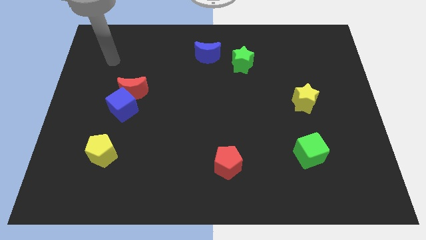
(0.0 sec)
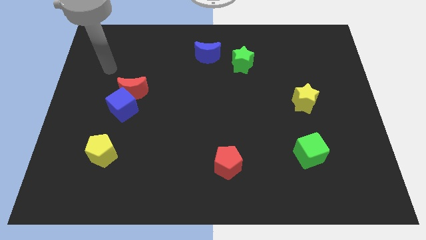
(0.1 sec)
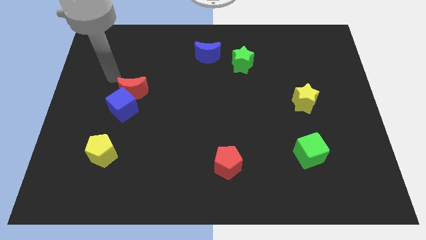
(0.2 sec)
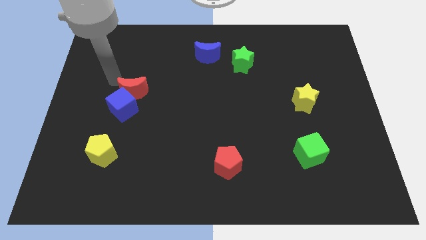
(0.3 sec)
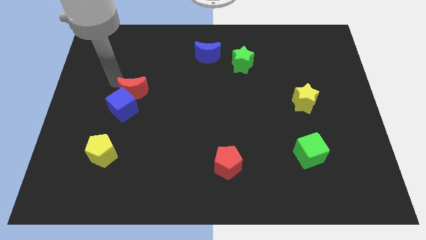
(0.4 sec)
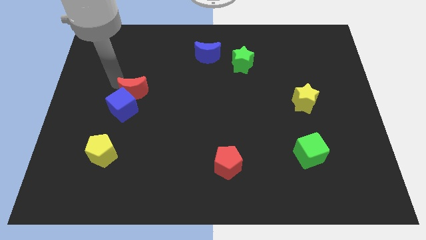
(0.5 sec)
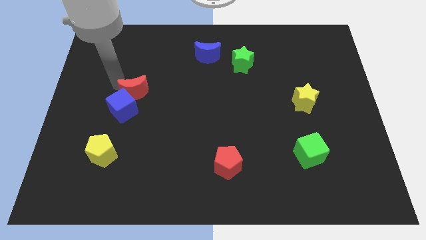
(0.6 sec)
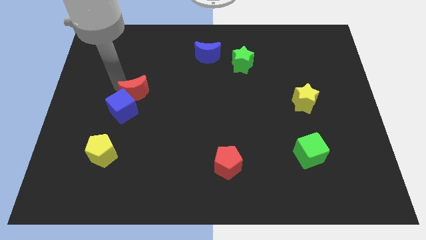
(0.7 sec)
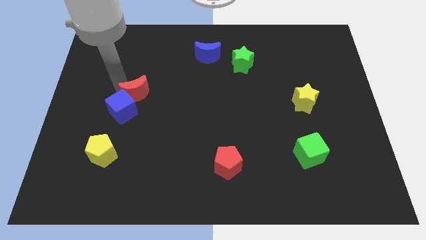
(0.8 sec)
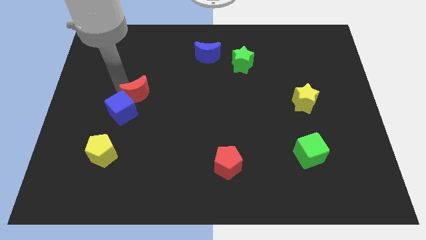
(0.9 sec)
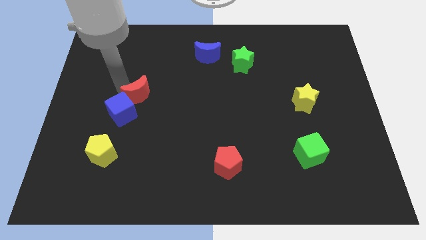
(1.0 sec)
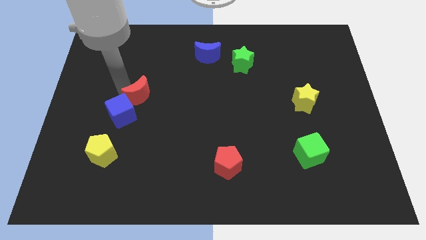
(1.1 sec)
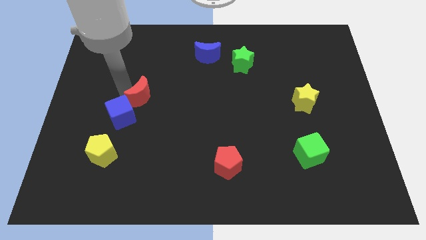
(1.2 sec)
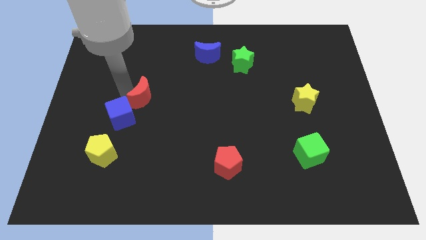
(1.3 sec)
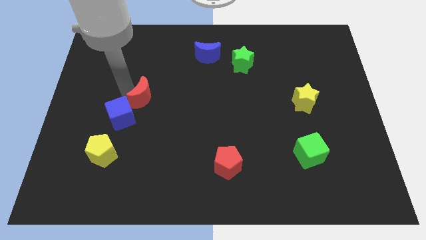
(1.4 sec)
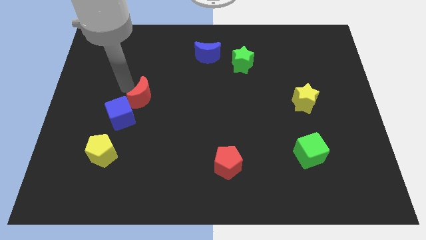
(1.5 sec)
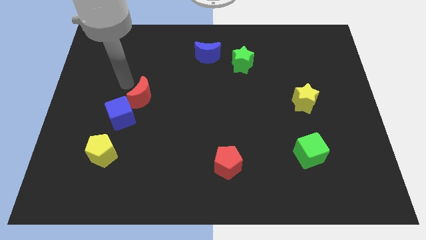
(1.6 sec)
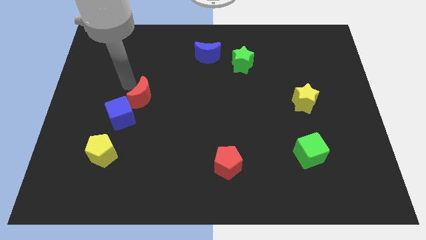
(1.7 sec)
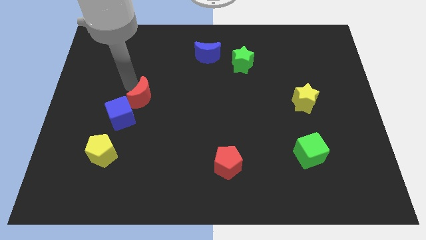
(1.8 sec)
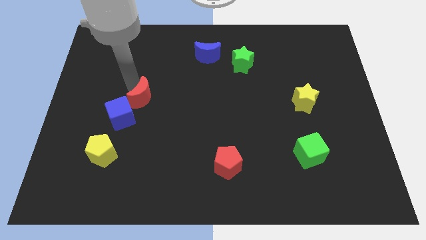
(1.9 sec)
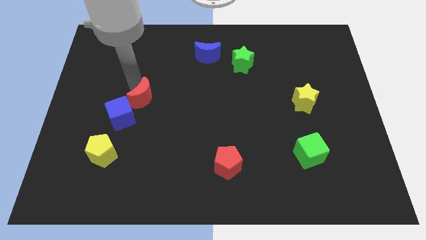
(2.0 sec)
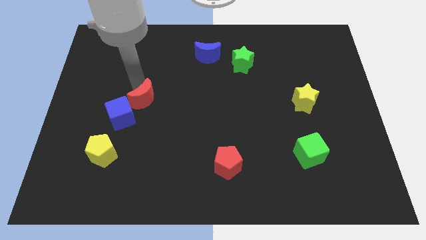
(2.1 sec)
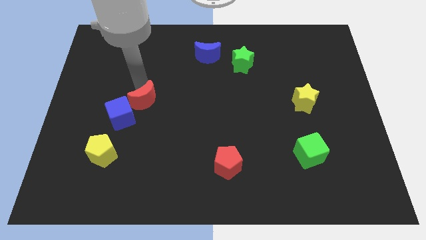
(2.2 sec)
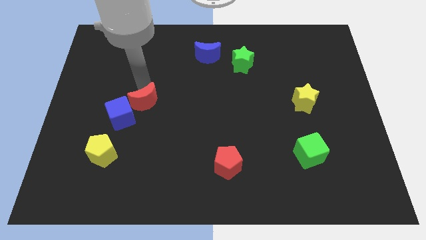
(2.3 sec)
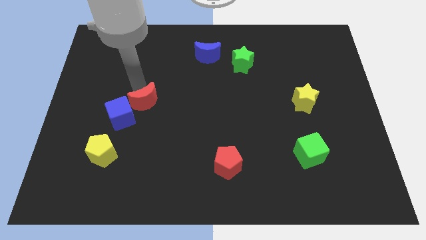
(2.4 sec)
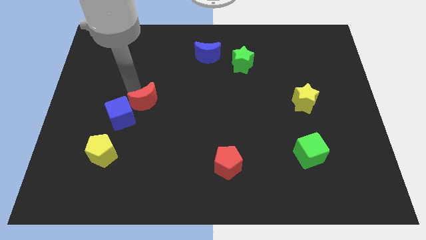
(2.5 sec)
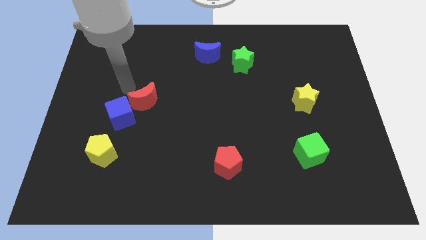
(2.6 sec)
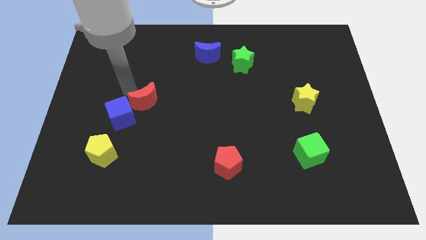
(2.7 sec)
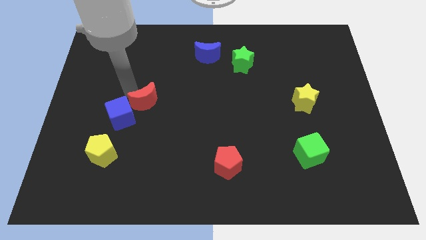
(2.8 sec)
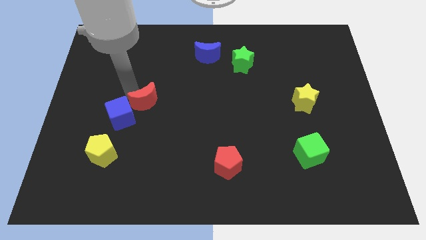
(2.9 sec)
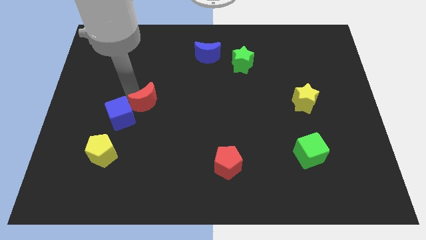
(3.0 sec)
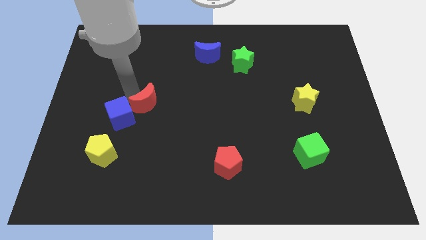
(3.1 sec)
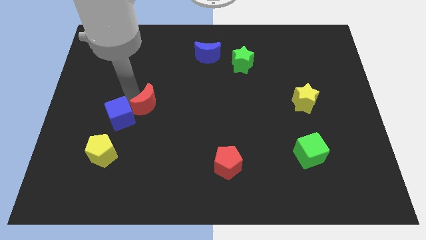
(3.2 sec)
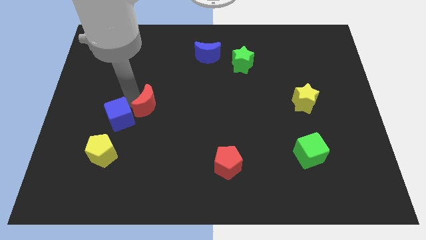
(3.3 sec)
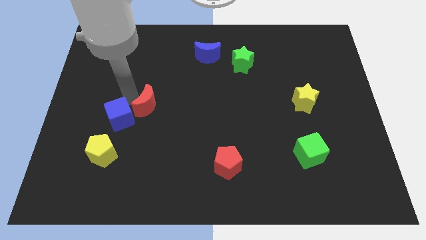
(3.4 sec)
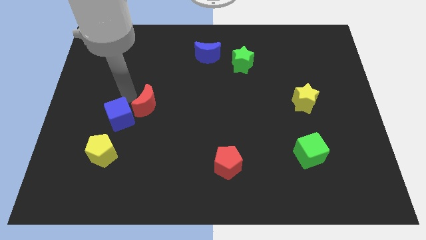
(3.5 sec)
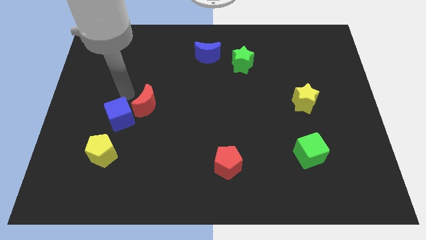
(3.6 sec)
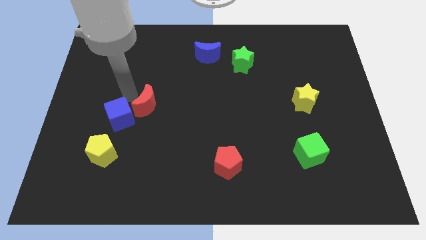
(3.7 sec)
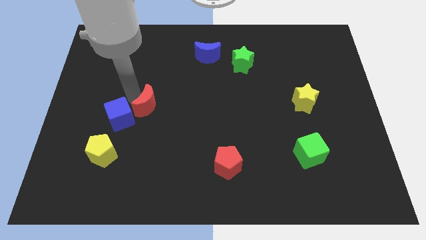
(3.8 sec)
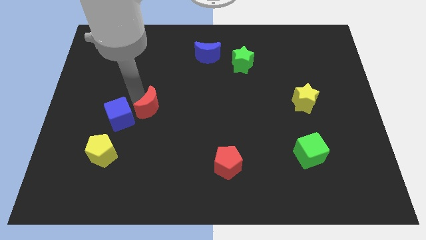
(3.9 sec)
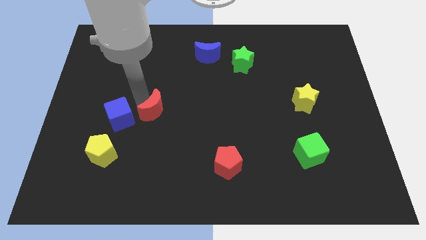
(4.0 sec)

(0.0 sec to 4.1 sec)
slide the red moon slightly down and to the right

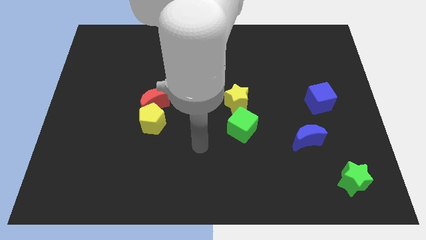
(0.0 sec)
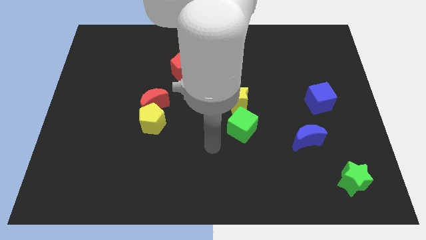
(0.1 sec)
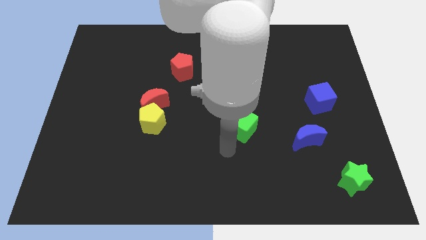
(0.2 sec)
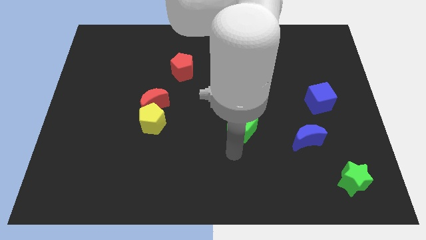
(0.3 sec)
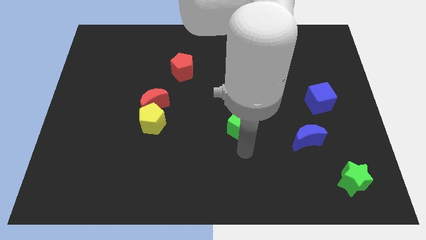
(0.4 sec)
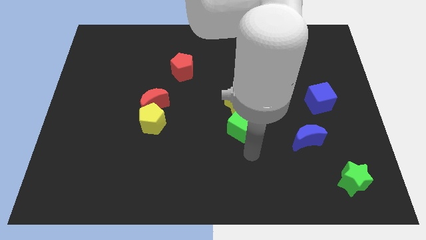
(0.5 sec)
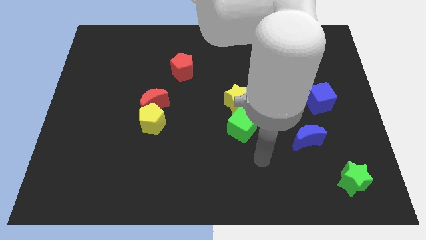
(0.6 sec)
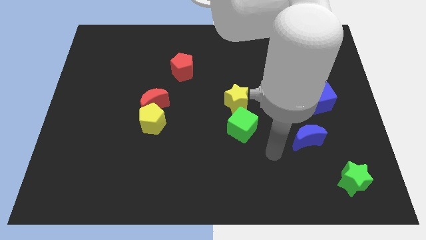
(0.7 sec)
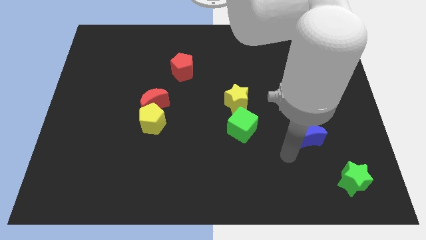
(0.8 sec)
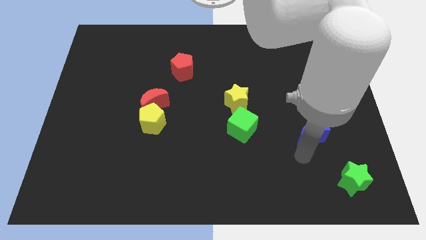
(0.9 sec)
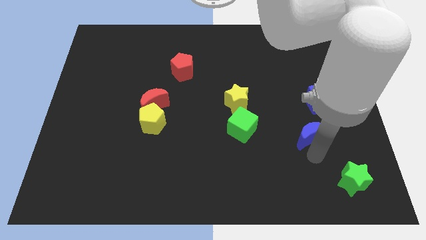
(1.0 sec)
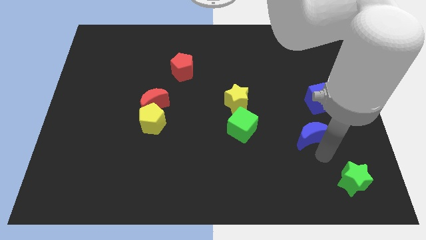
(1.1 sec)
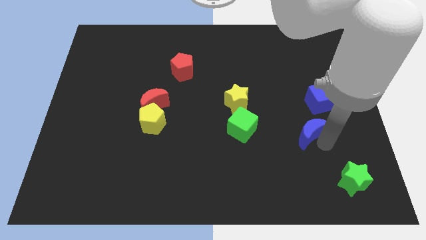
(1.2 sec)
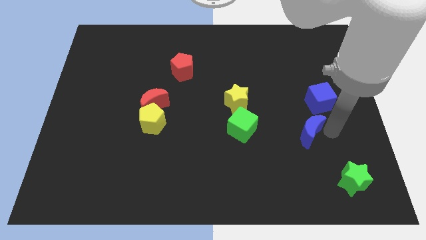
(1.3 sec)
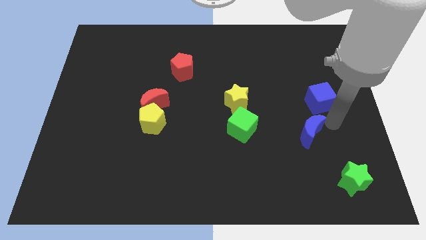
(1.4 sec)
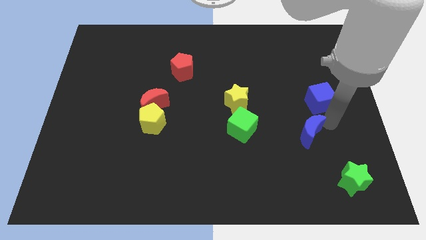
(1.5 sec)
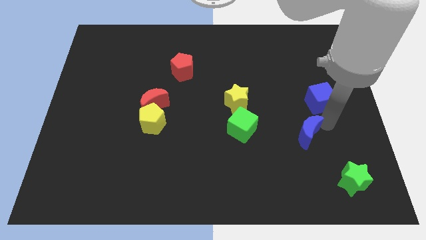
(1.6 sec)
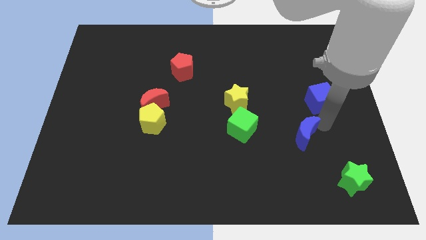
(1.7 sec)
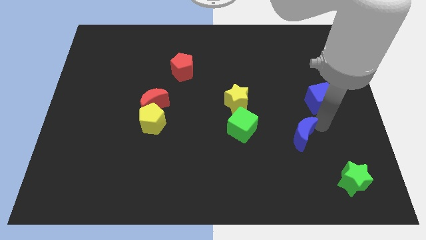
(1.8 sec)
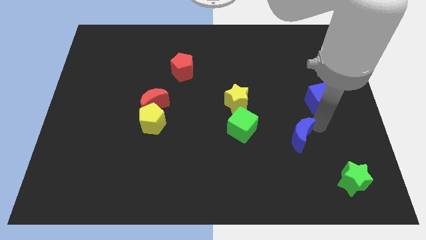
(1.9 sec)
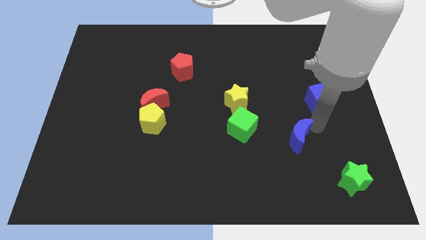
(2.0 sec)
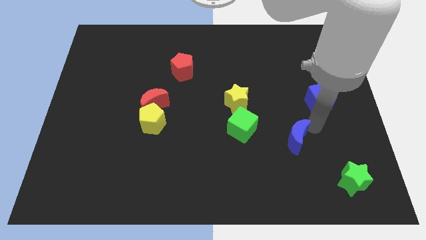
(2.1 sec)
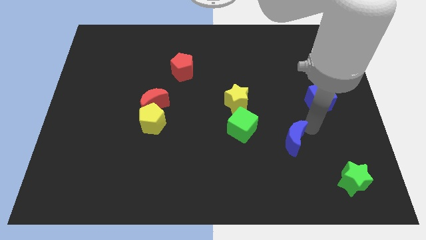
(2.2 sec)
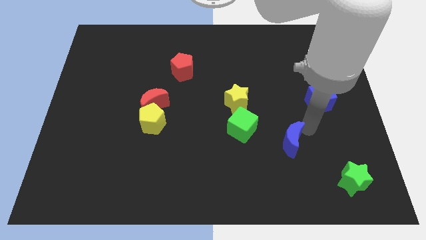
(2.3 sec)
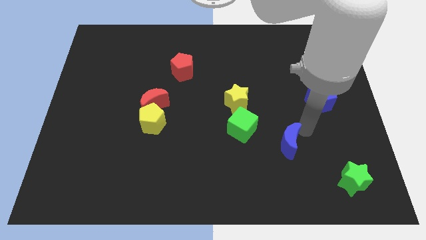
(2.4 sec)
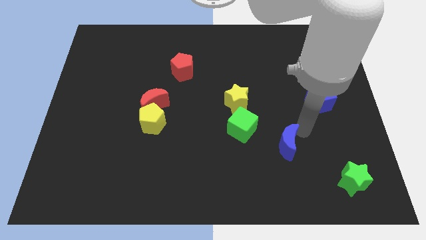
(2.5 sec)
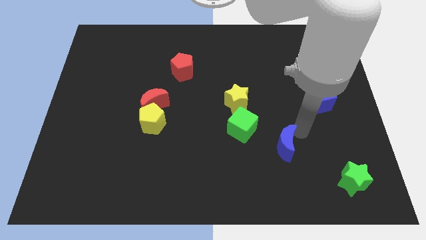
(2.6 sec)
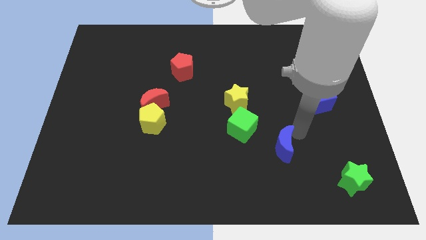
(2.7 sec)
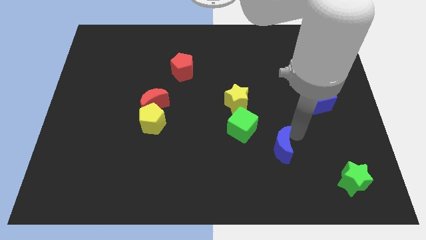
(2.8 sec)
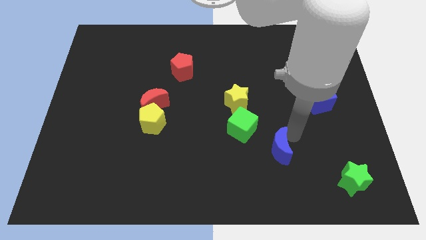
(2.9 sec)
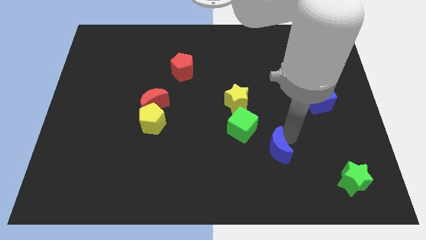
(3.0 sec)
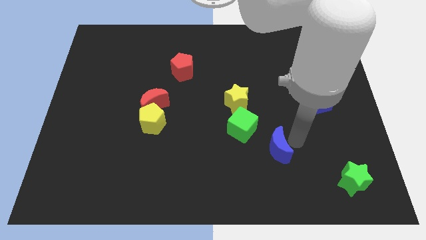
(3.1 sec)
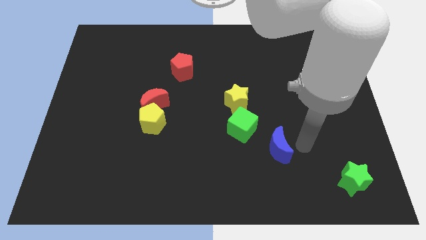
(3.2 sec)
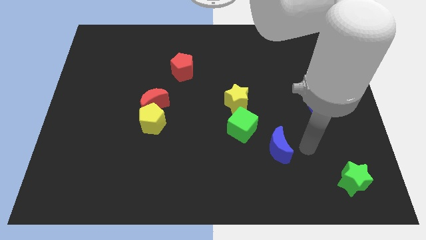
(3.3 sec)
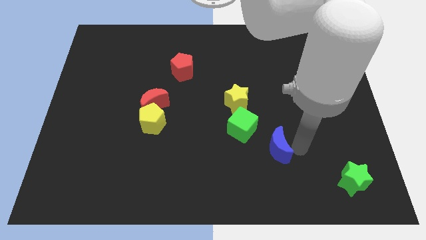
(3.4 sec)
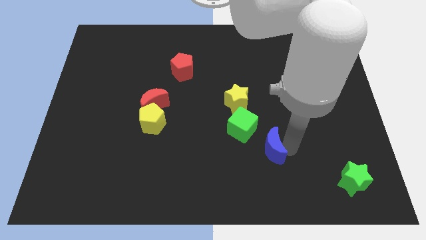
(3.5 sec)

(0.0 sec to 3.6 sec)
push the blue moon left a bit

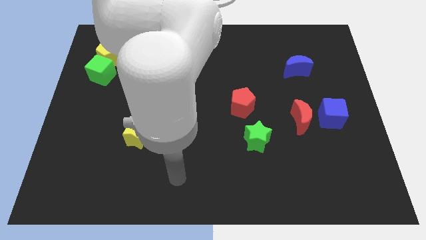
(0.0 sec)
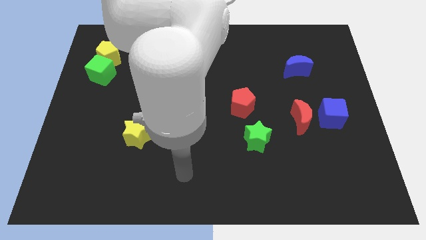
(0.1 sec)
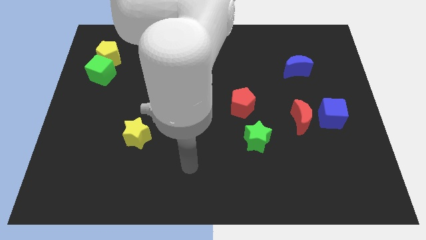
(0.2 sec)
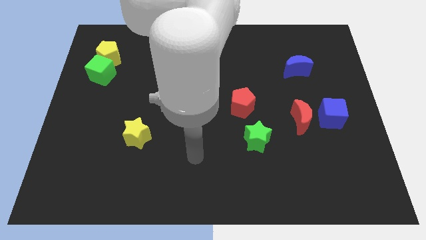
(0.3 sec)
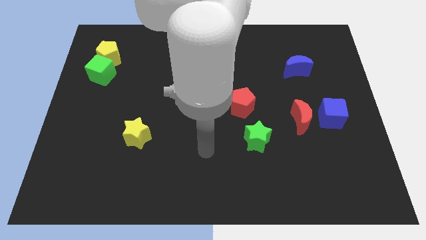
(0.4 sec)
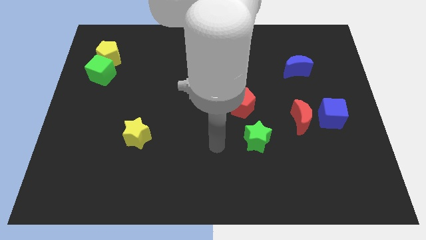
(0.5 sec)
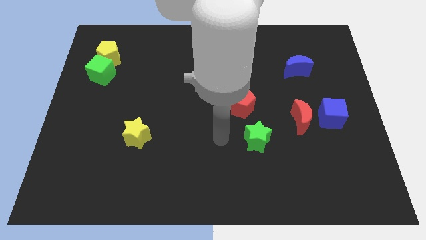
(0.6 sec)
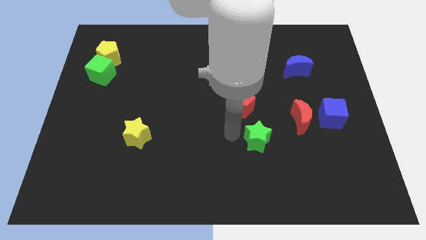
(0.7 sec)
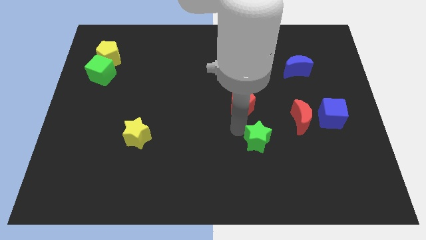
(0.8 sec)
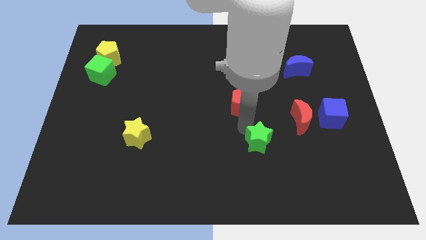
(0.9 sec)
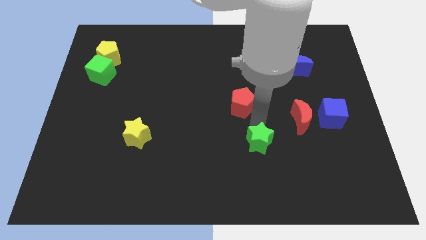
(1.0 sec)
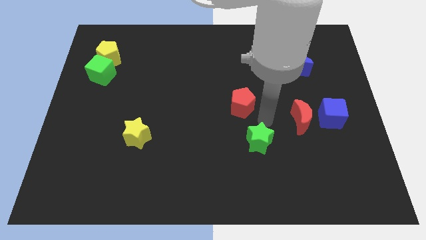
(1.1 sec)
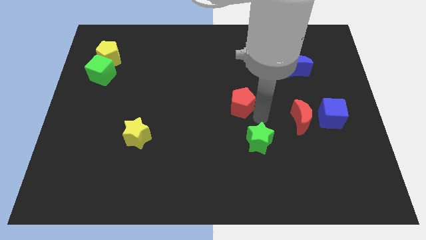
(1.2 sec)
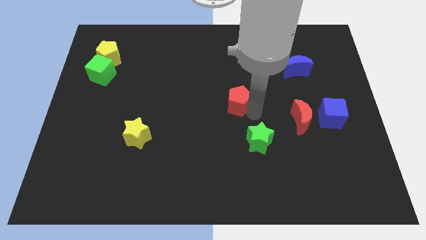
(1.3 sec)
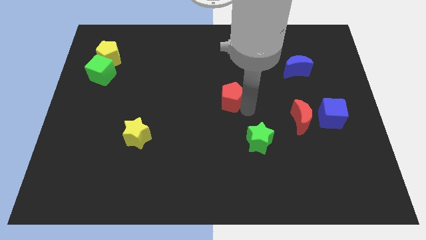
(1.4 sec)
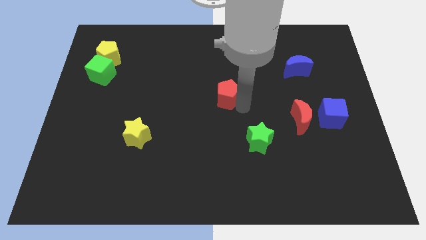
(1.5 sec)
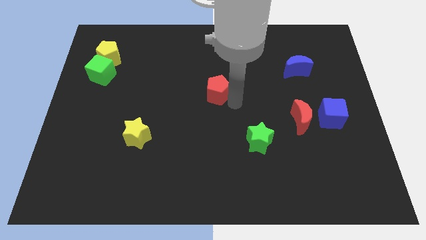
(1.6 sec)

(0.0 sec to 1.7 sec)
push the red pentagon up and to the left diagonally a little bit
